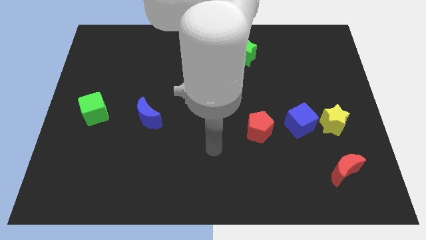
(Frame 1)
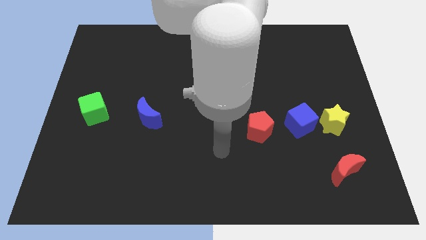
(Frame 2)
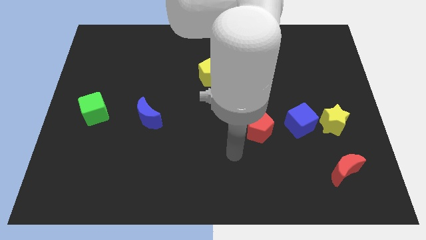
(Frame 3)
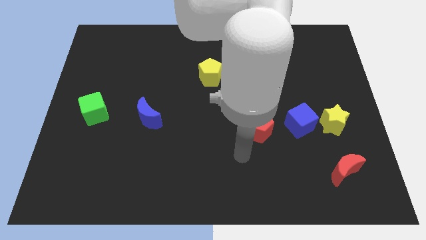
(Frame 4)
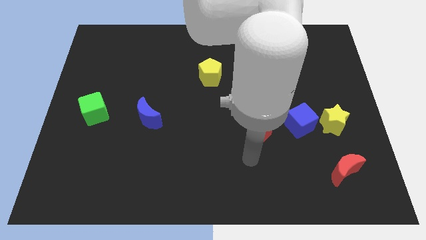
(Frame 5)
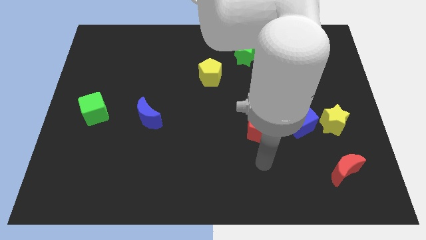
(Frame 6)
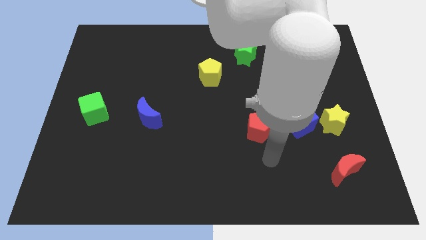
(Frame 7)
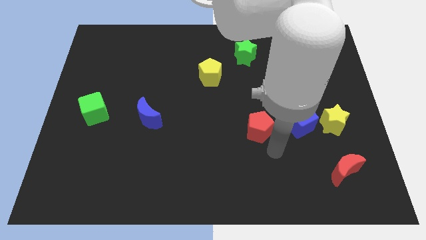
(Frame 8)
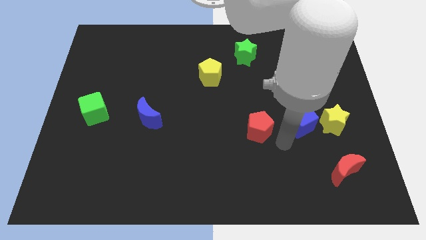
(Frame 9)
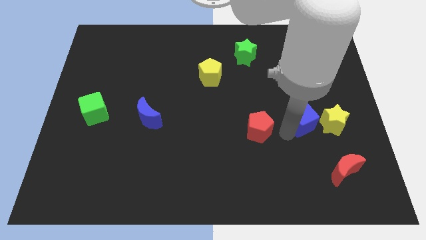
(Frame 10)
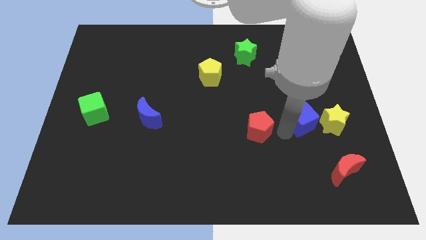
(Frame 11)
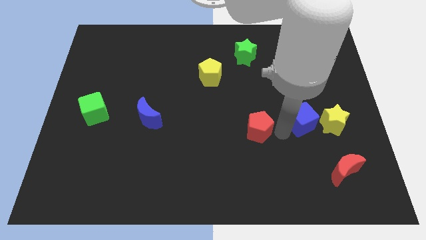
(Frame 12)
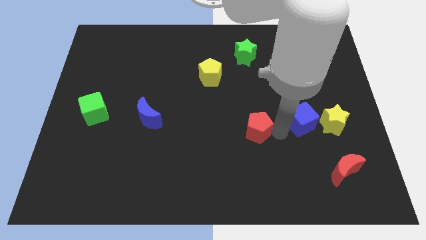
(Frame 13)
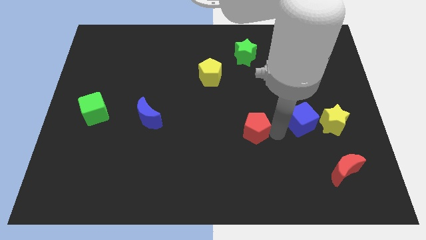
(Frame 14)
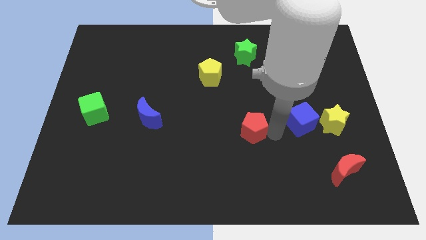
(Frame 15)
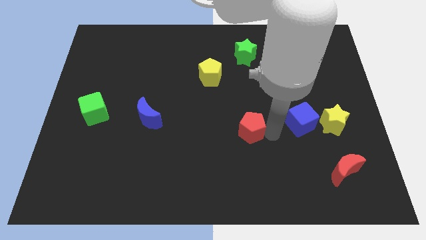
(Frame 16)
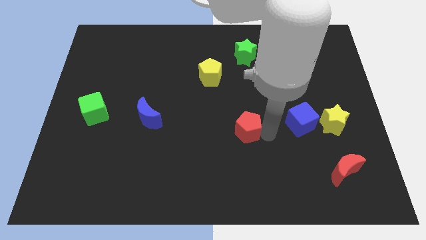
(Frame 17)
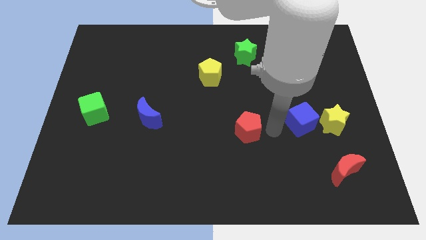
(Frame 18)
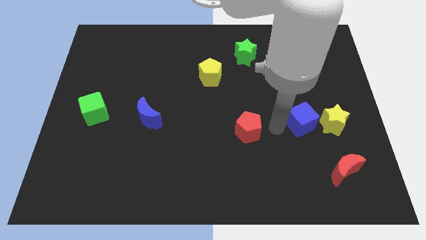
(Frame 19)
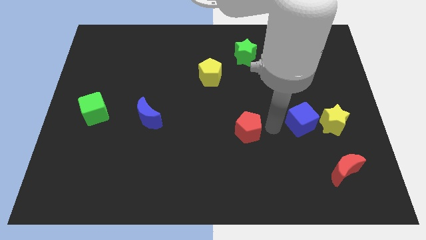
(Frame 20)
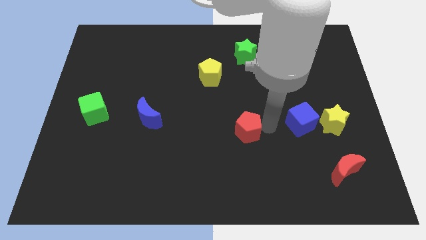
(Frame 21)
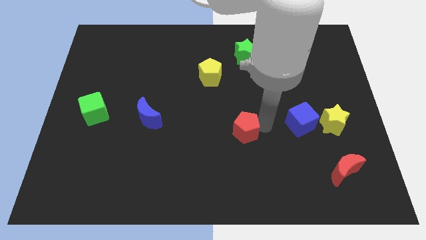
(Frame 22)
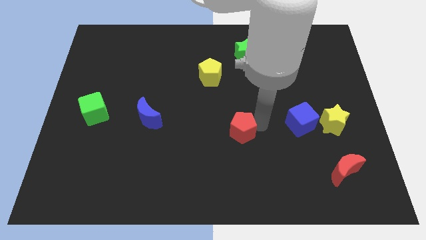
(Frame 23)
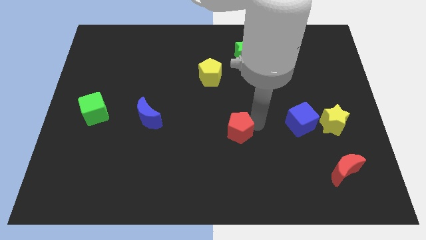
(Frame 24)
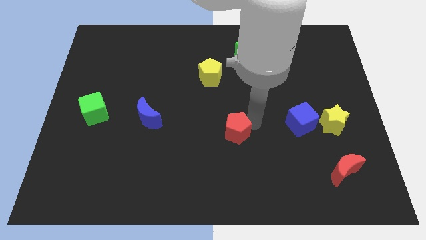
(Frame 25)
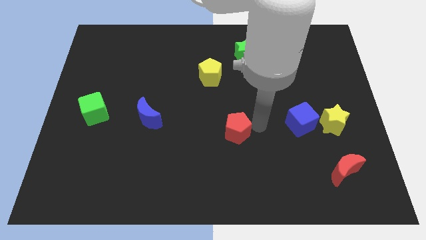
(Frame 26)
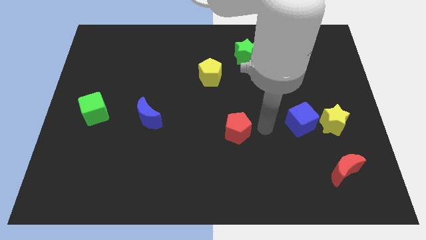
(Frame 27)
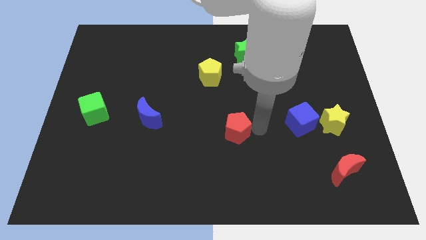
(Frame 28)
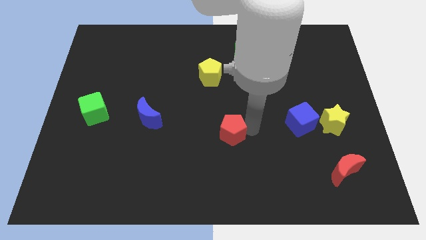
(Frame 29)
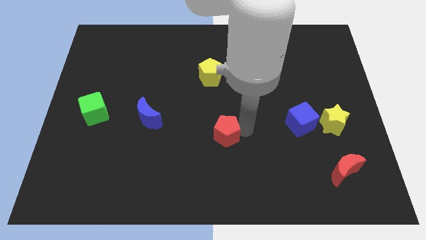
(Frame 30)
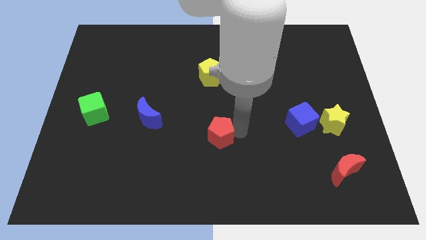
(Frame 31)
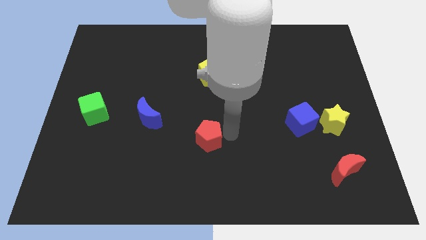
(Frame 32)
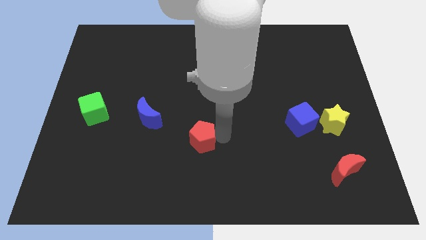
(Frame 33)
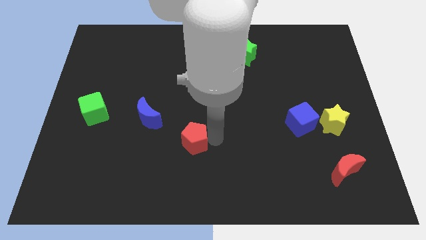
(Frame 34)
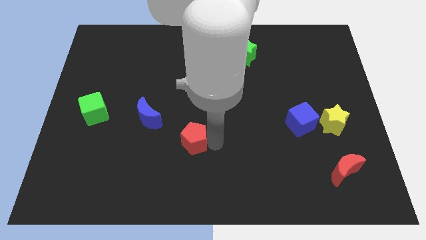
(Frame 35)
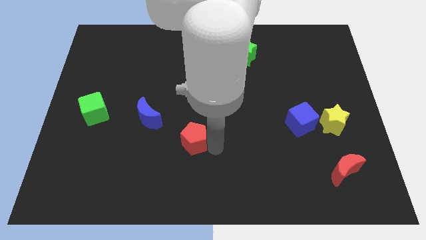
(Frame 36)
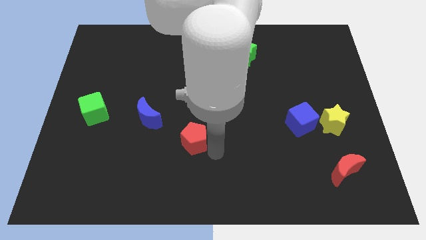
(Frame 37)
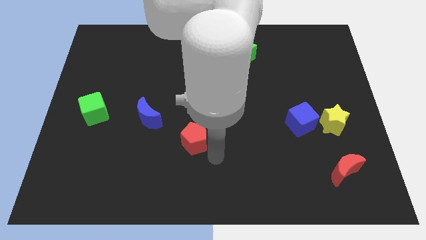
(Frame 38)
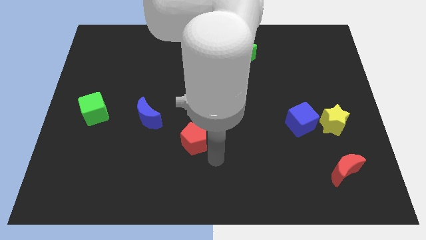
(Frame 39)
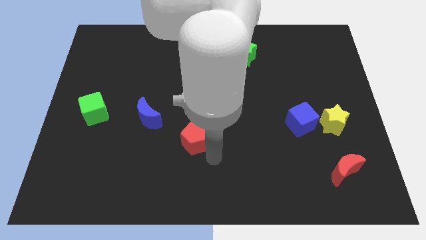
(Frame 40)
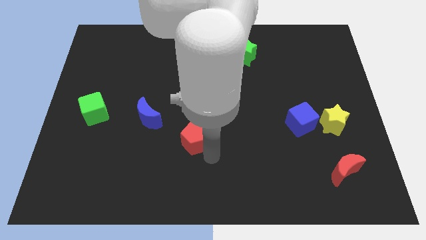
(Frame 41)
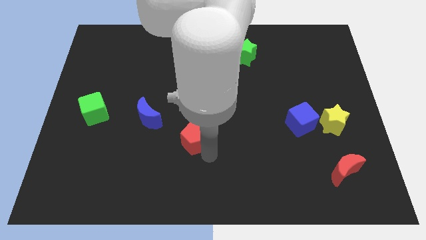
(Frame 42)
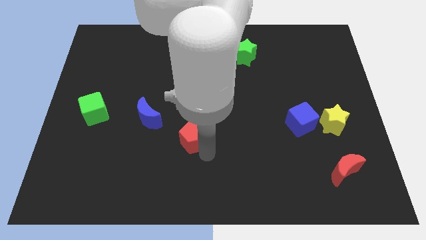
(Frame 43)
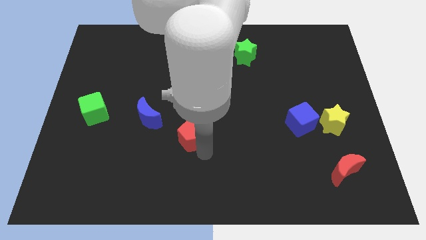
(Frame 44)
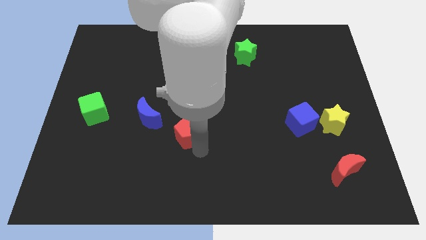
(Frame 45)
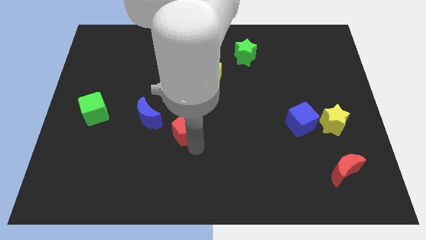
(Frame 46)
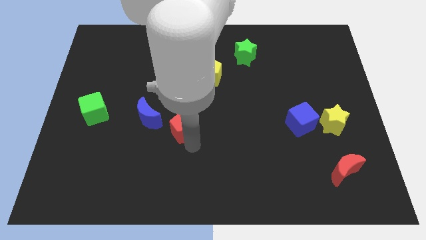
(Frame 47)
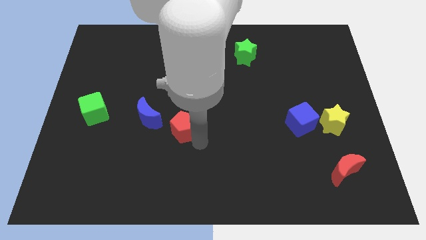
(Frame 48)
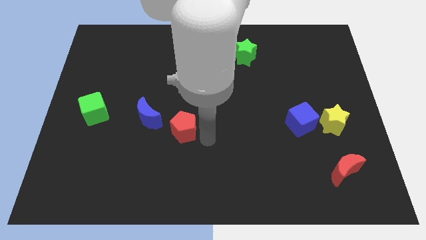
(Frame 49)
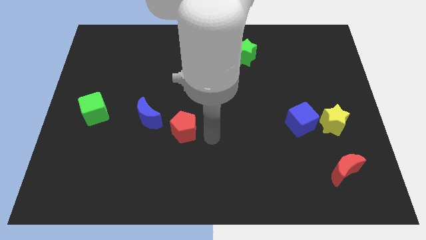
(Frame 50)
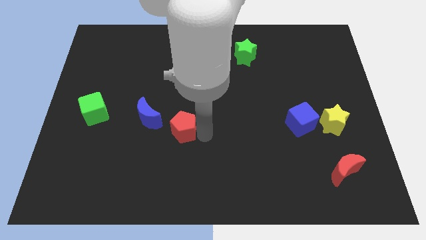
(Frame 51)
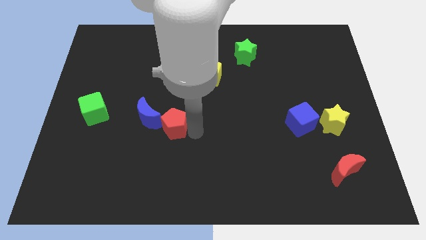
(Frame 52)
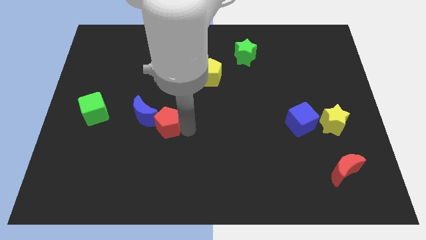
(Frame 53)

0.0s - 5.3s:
put the red pentagon towards the blue moon

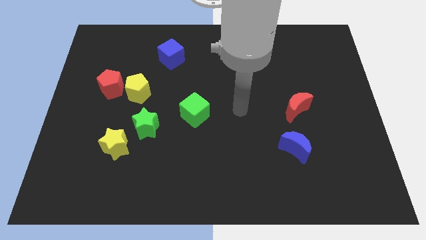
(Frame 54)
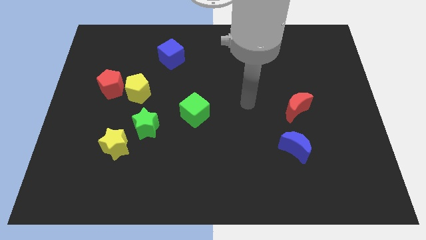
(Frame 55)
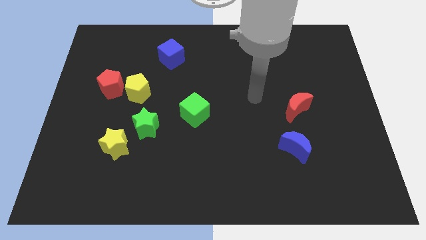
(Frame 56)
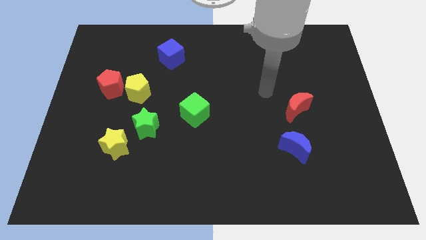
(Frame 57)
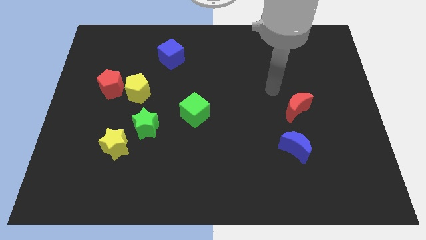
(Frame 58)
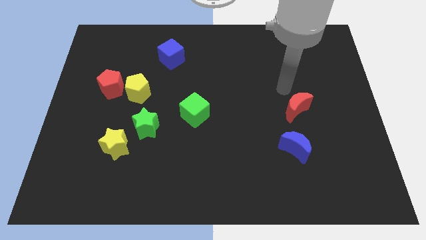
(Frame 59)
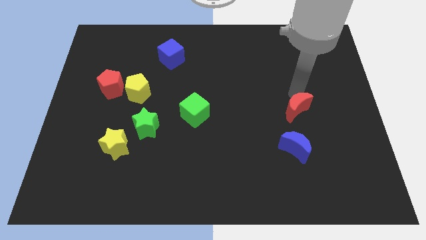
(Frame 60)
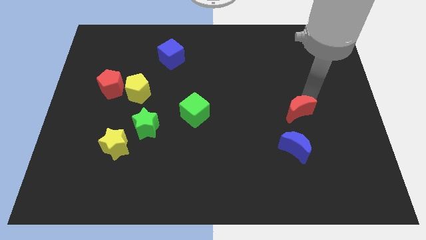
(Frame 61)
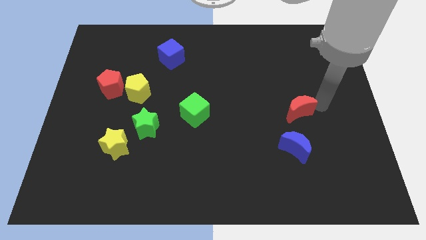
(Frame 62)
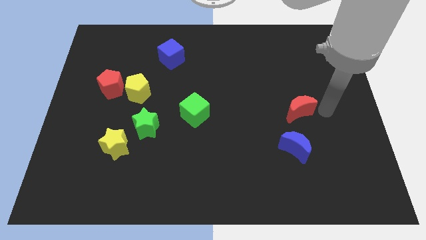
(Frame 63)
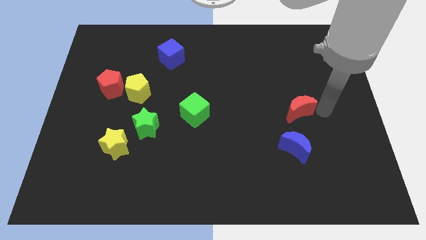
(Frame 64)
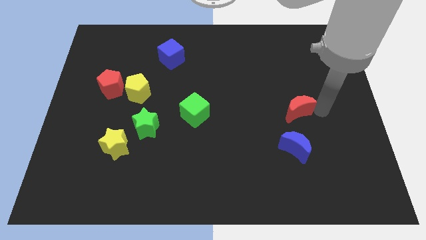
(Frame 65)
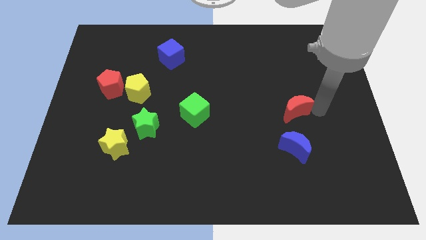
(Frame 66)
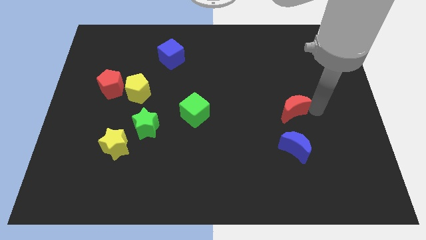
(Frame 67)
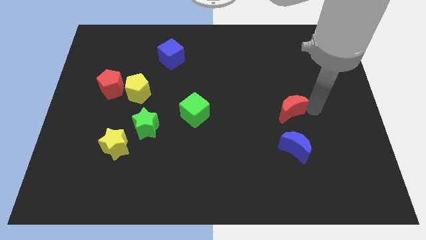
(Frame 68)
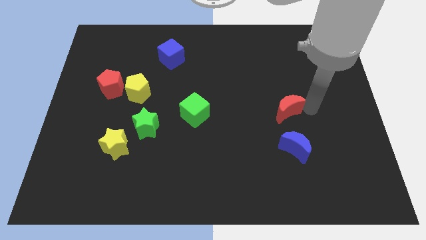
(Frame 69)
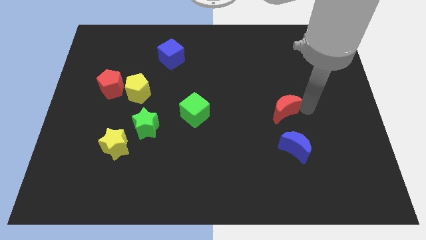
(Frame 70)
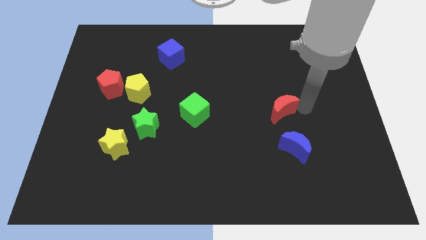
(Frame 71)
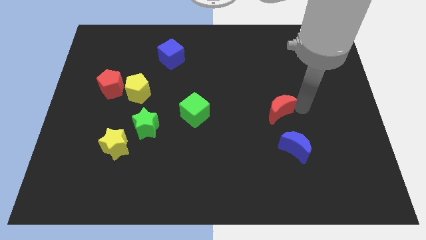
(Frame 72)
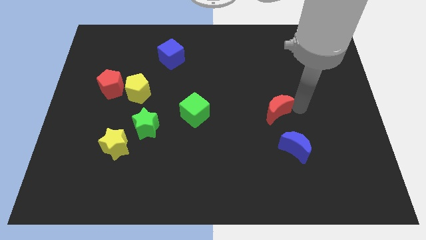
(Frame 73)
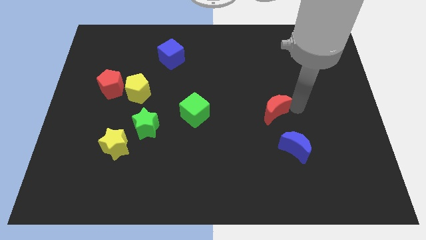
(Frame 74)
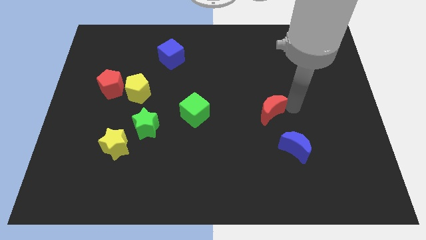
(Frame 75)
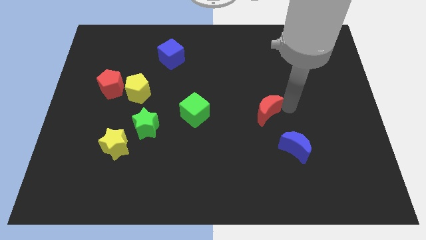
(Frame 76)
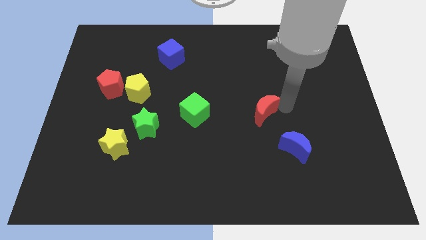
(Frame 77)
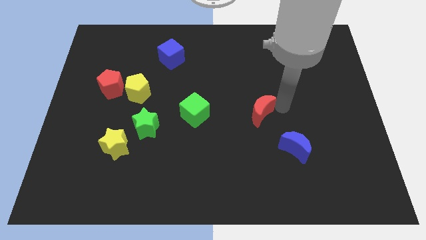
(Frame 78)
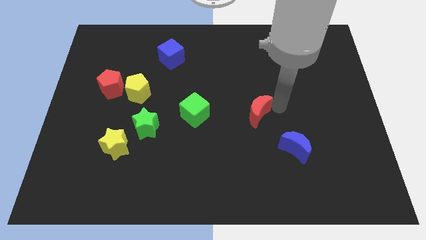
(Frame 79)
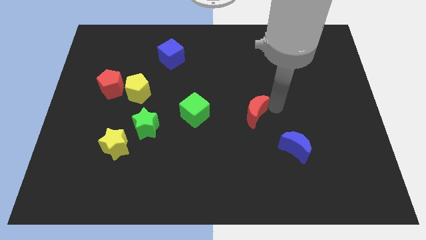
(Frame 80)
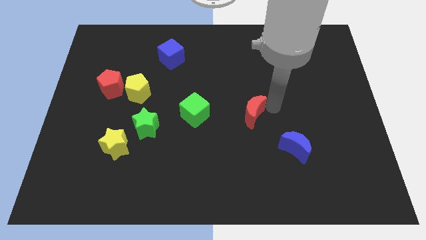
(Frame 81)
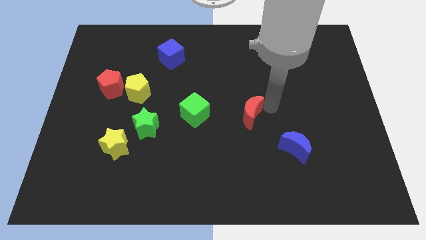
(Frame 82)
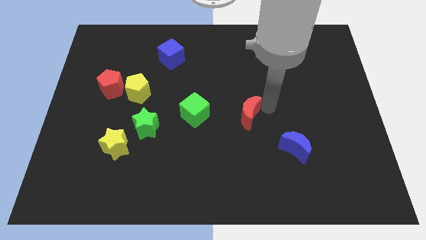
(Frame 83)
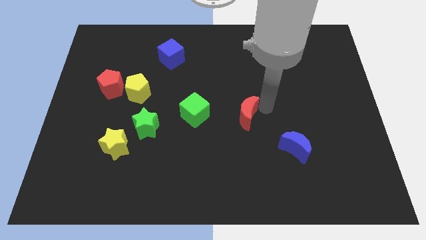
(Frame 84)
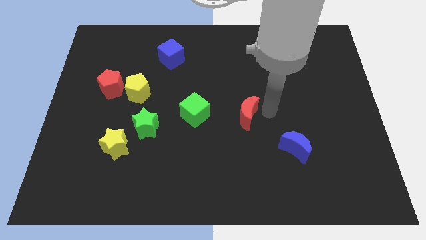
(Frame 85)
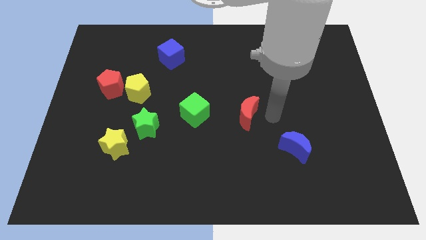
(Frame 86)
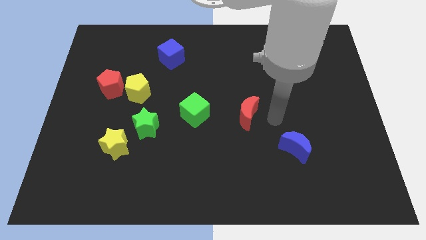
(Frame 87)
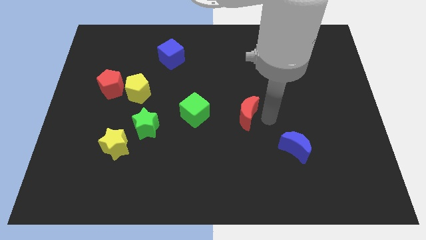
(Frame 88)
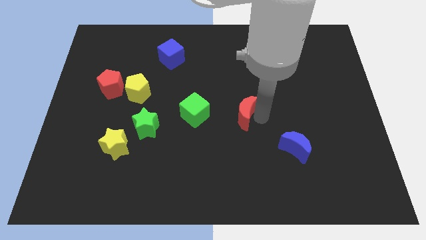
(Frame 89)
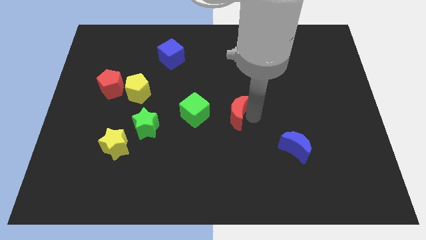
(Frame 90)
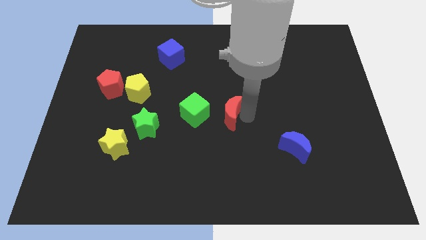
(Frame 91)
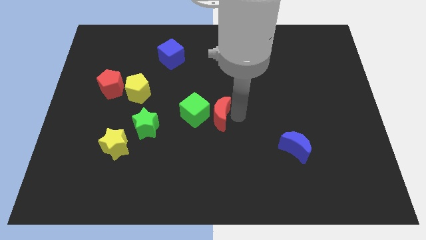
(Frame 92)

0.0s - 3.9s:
slide the red moon to the green cube
